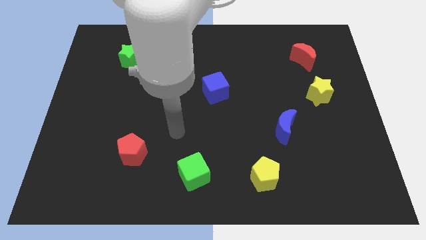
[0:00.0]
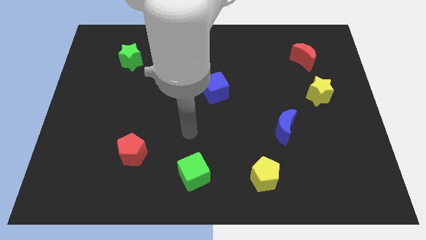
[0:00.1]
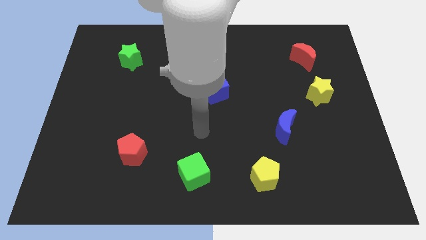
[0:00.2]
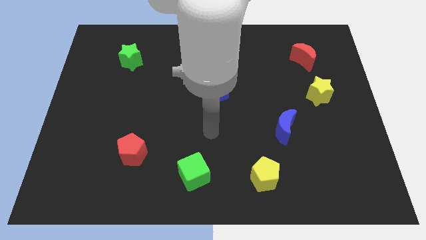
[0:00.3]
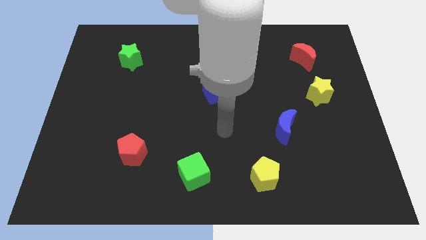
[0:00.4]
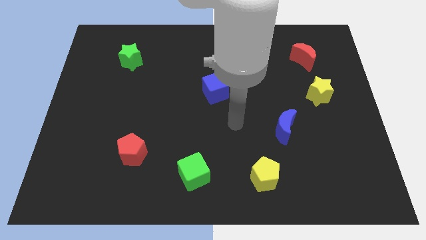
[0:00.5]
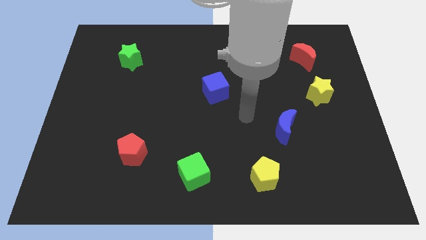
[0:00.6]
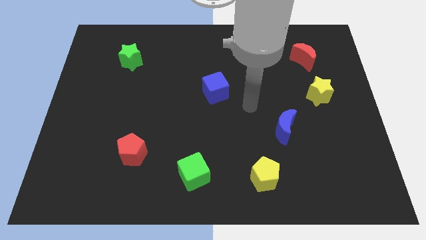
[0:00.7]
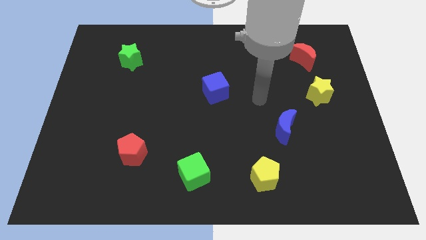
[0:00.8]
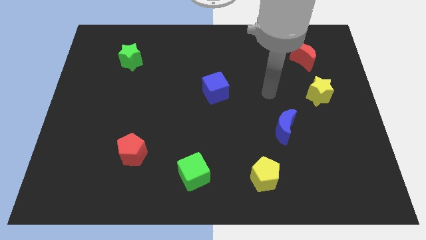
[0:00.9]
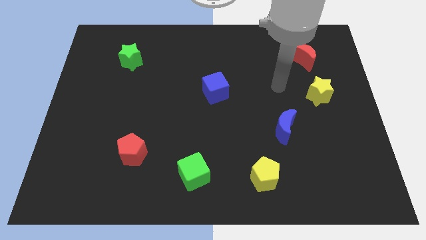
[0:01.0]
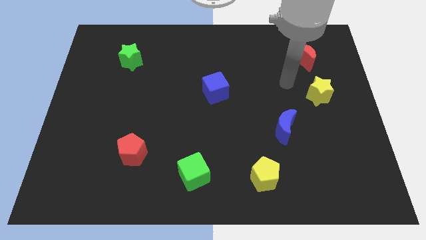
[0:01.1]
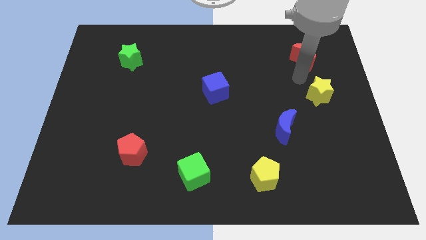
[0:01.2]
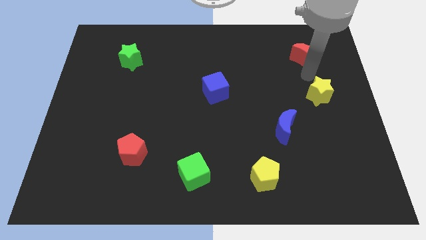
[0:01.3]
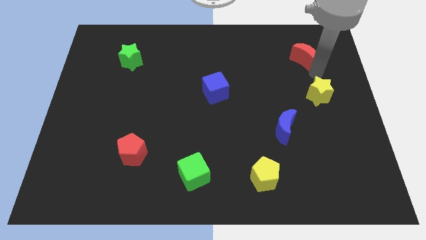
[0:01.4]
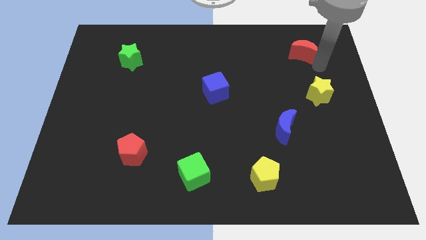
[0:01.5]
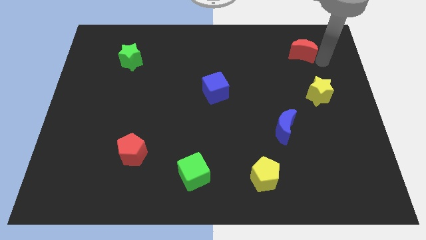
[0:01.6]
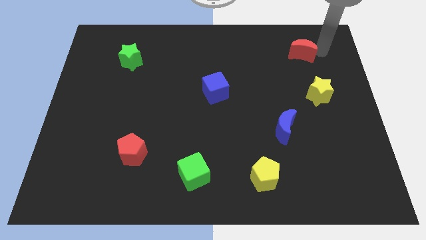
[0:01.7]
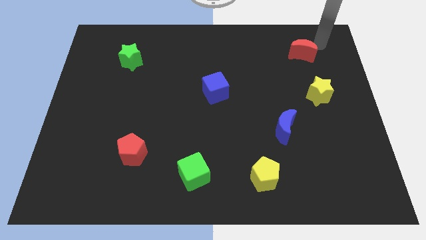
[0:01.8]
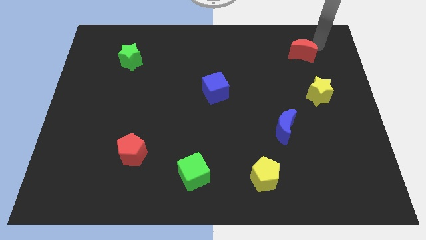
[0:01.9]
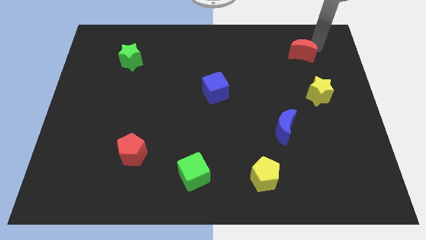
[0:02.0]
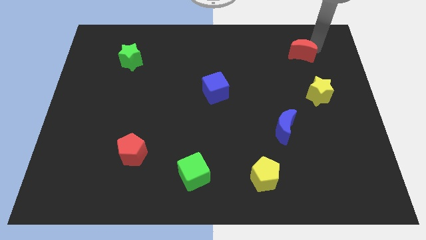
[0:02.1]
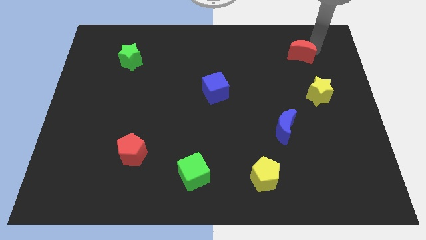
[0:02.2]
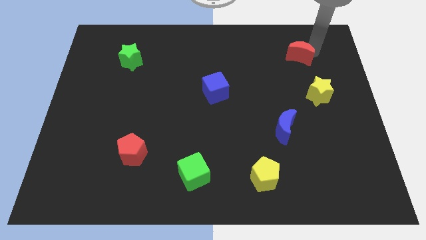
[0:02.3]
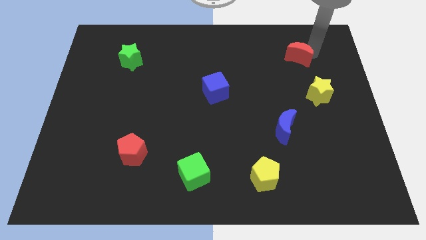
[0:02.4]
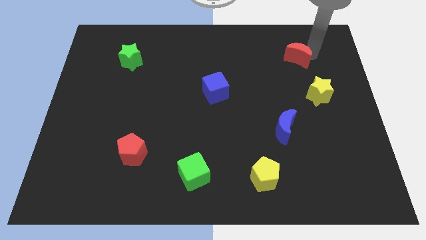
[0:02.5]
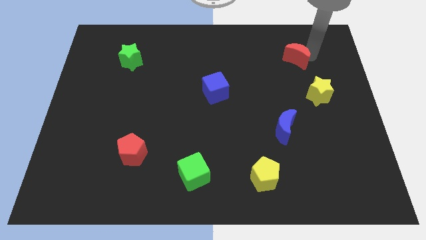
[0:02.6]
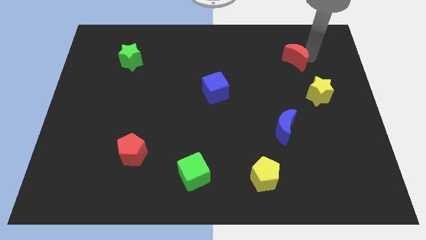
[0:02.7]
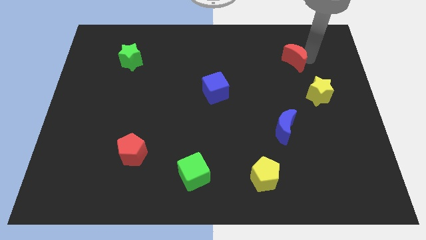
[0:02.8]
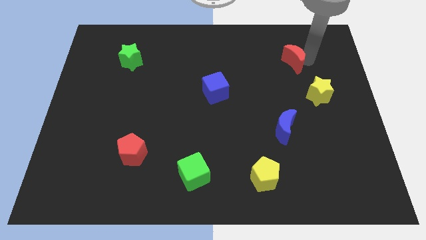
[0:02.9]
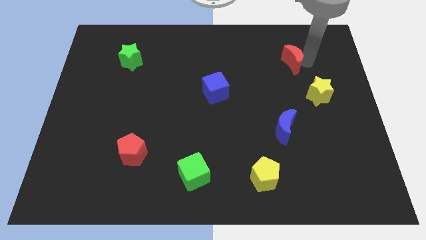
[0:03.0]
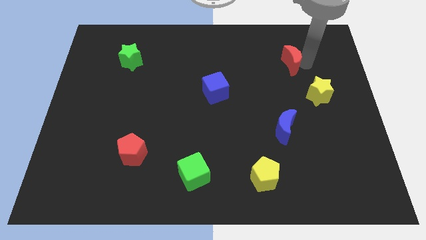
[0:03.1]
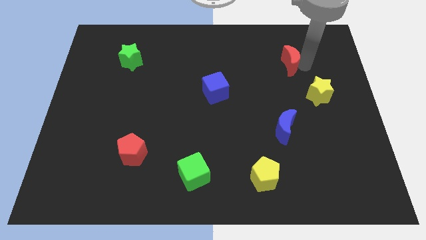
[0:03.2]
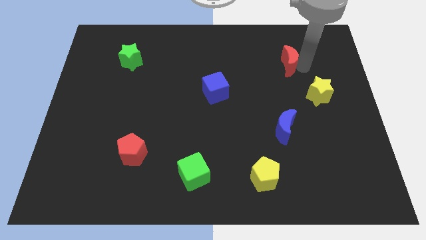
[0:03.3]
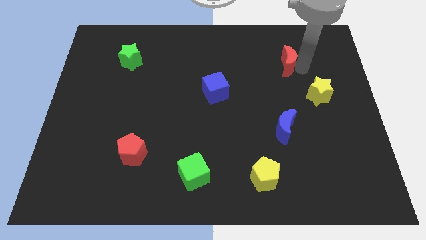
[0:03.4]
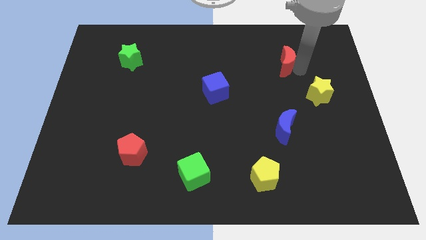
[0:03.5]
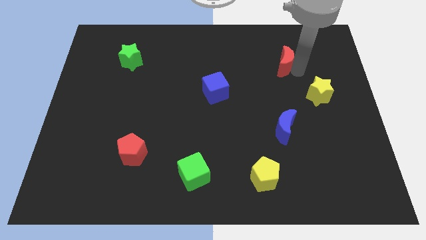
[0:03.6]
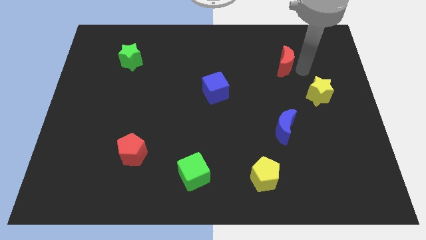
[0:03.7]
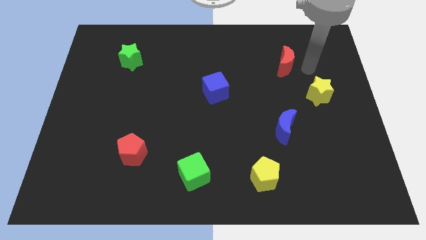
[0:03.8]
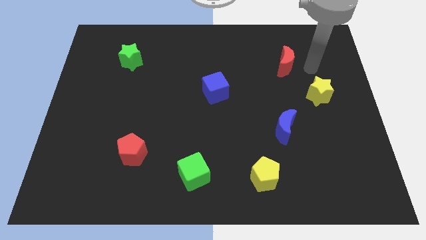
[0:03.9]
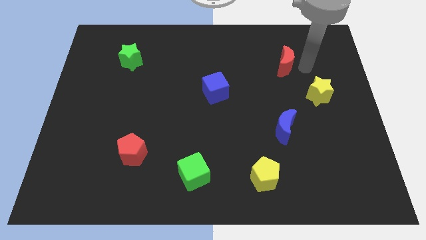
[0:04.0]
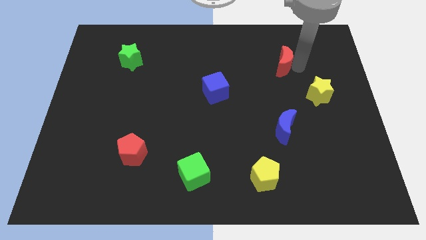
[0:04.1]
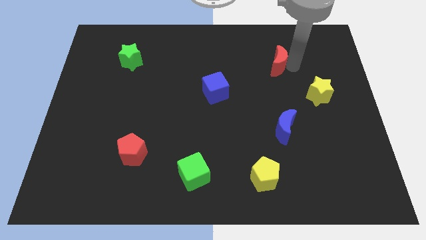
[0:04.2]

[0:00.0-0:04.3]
slightly push the red moon left

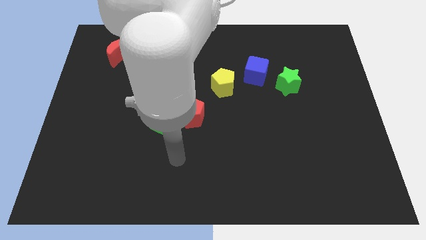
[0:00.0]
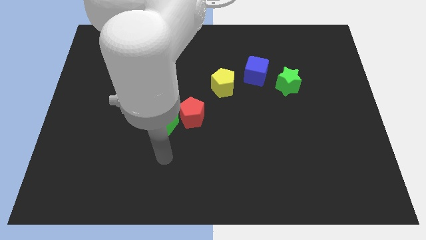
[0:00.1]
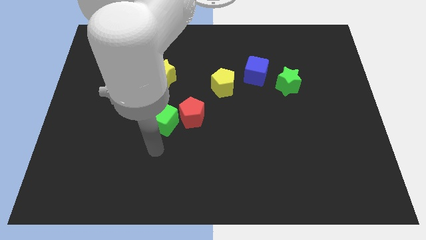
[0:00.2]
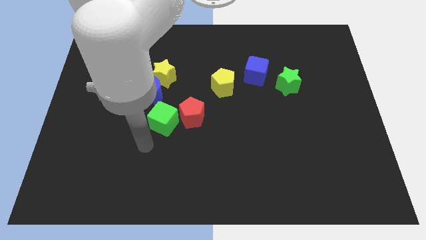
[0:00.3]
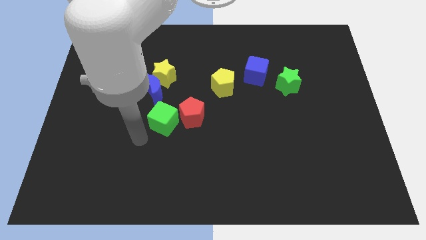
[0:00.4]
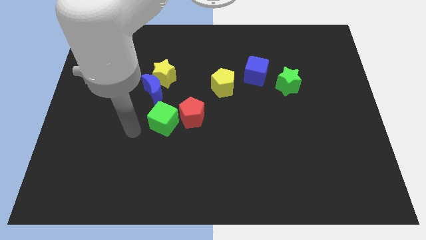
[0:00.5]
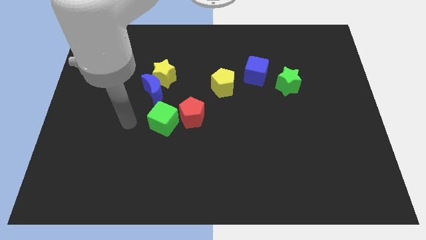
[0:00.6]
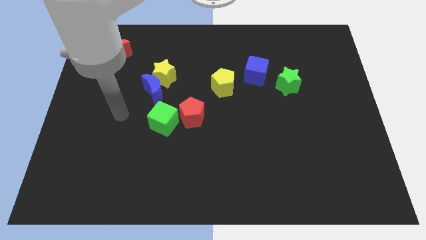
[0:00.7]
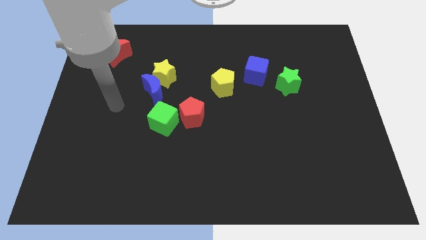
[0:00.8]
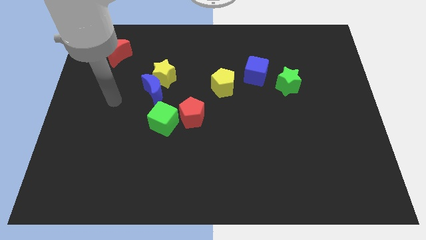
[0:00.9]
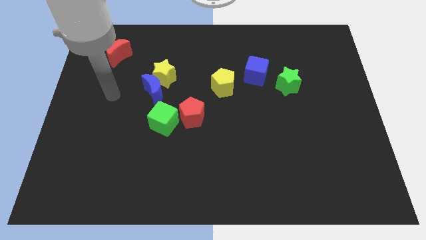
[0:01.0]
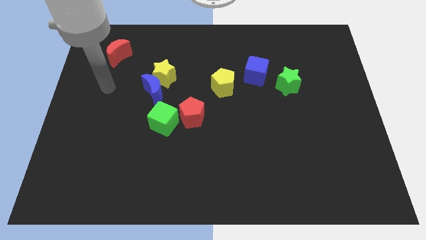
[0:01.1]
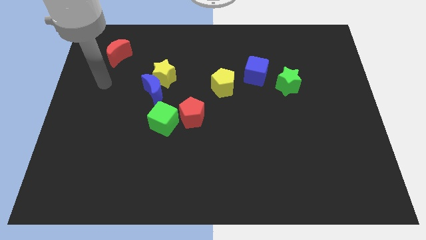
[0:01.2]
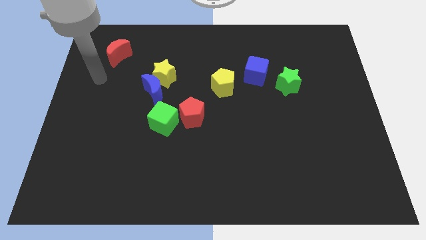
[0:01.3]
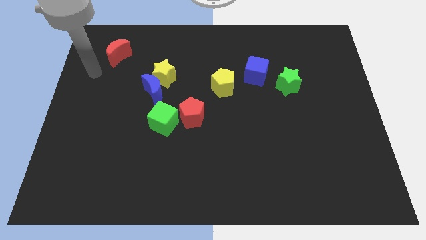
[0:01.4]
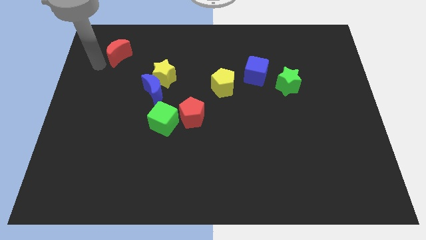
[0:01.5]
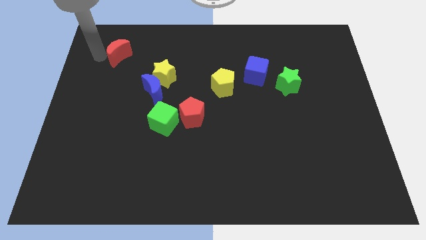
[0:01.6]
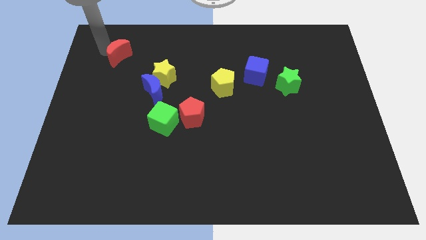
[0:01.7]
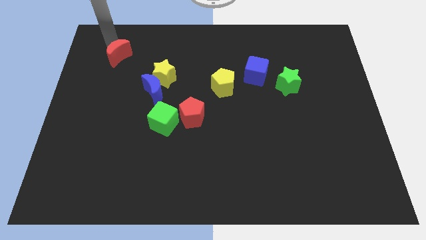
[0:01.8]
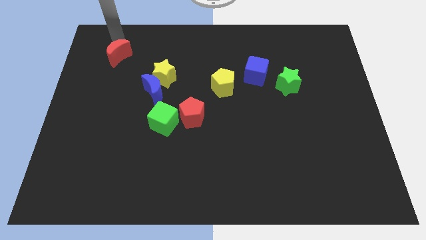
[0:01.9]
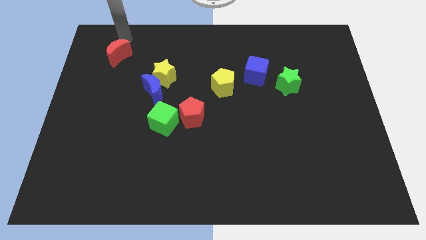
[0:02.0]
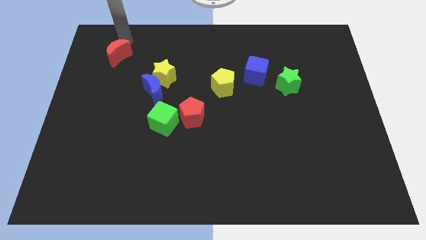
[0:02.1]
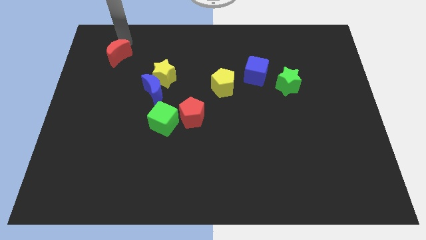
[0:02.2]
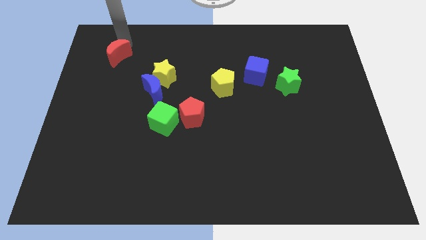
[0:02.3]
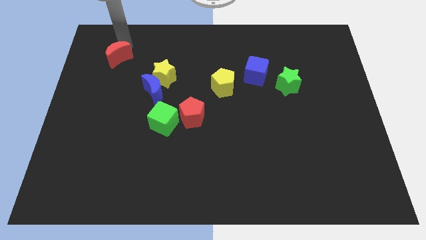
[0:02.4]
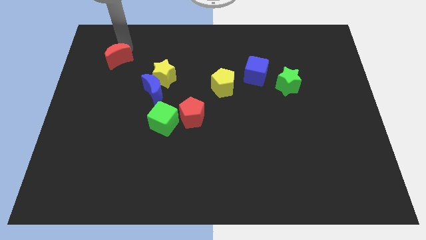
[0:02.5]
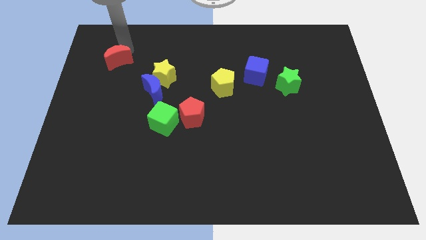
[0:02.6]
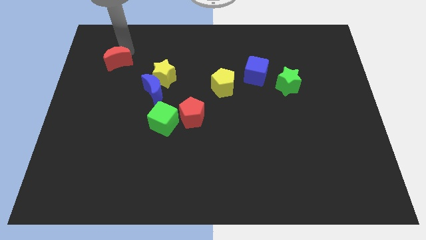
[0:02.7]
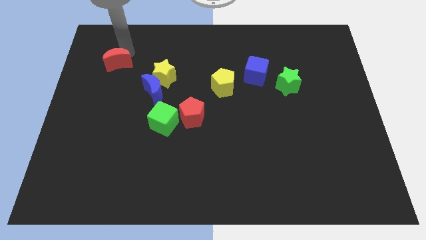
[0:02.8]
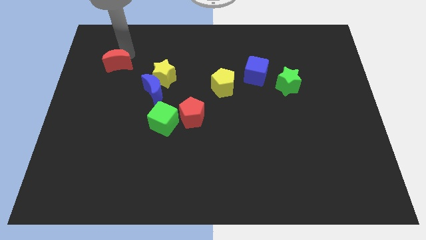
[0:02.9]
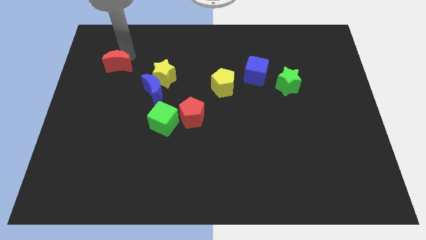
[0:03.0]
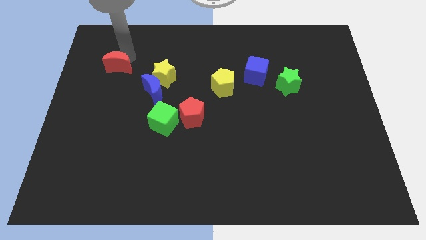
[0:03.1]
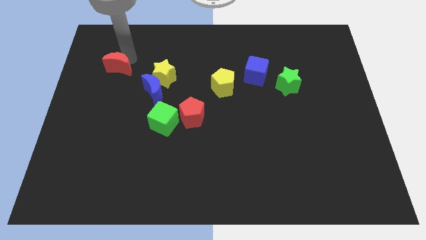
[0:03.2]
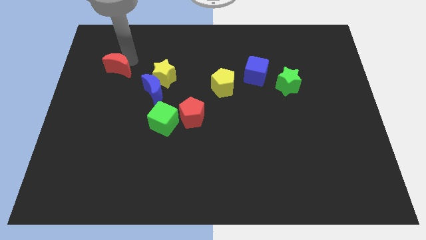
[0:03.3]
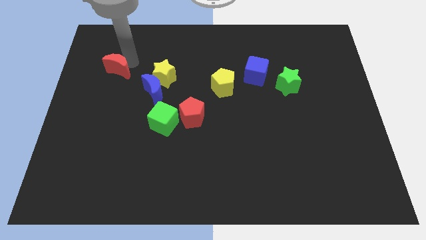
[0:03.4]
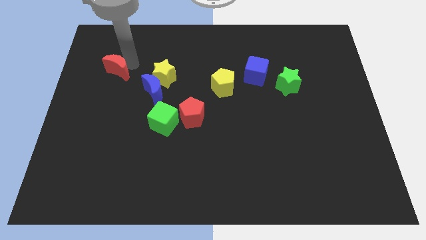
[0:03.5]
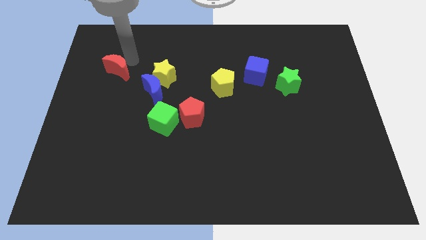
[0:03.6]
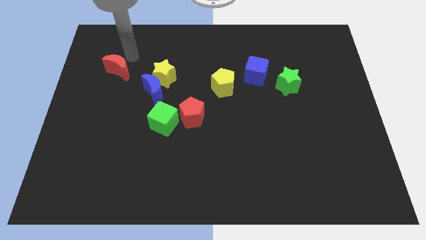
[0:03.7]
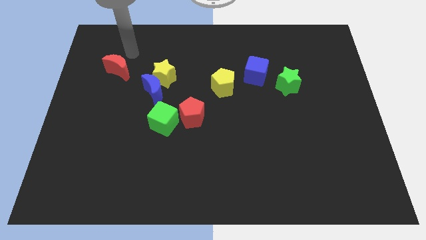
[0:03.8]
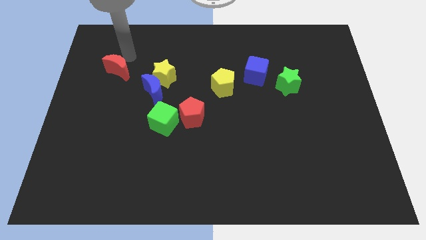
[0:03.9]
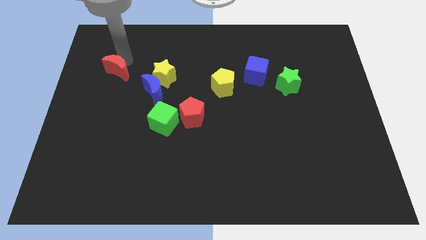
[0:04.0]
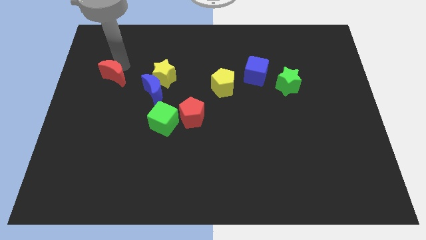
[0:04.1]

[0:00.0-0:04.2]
slightly slide the red moon downwards

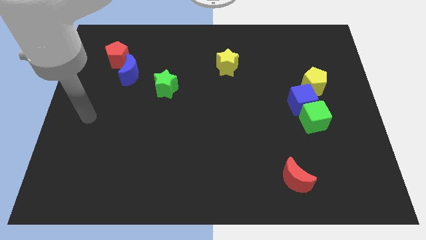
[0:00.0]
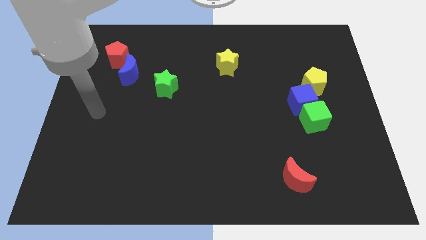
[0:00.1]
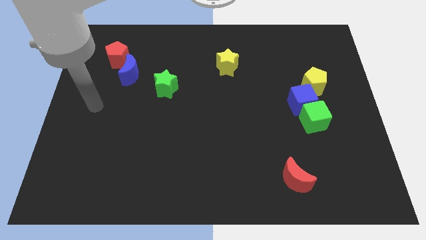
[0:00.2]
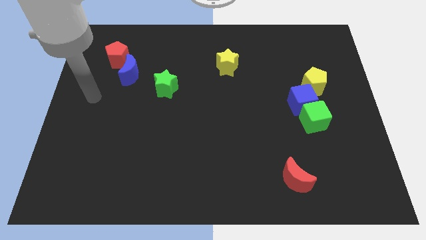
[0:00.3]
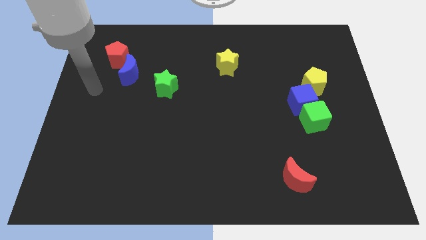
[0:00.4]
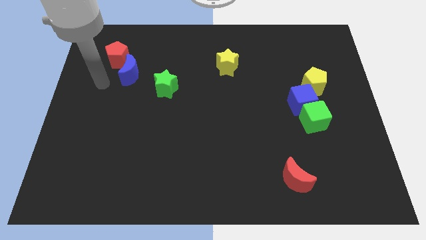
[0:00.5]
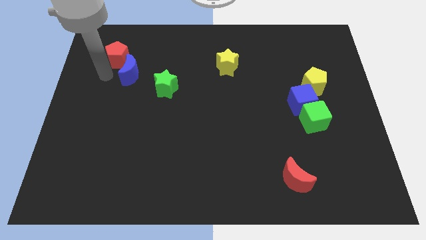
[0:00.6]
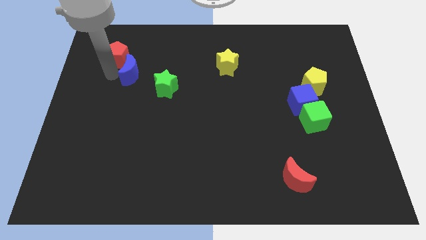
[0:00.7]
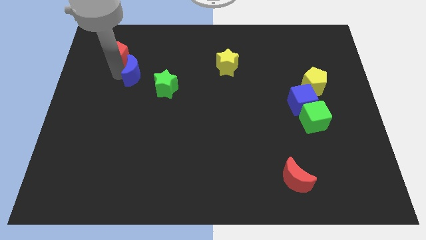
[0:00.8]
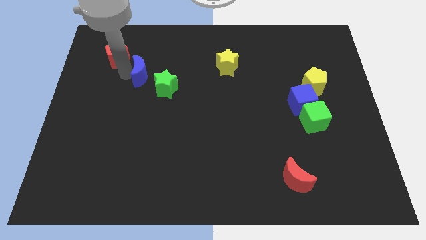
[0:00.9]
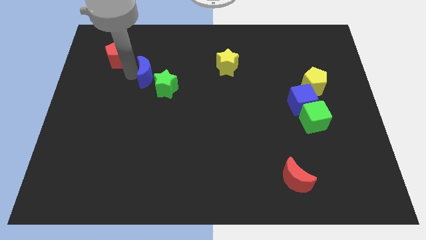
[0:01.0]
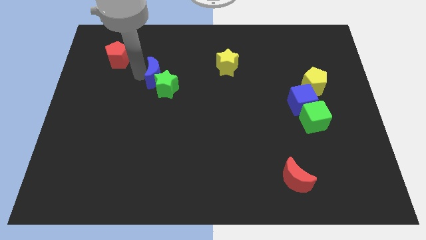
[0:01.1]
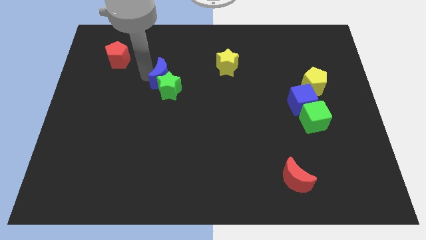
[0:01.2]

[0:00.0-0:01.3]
move the blue moon right a bit
